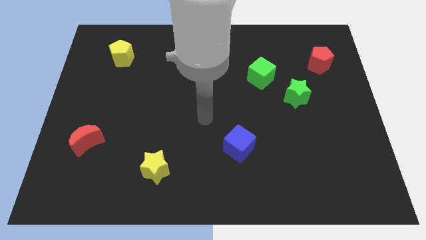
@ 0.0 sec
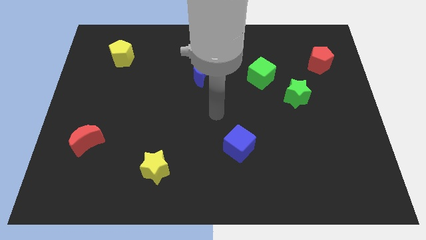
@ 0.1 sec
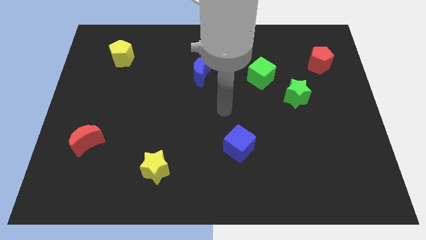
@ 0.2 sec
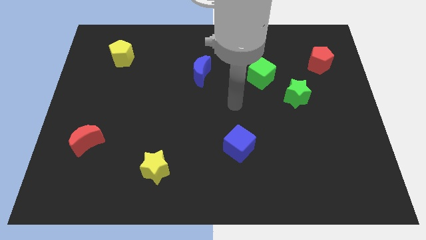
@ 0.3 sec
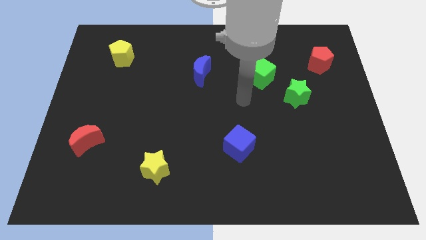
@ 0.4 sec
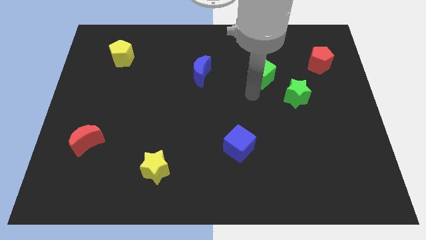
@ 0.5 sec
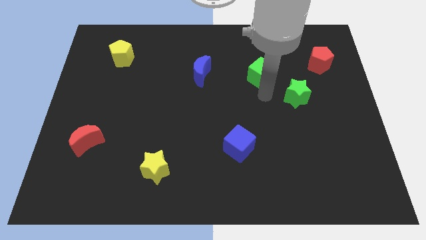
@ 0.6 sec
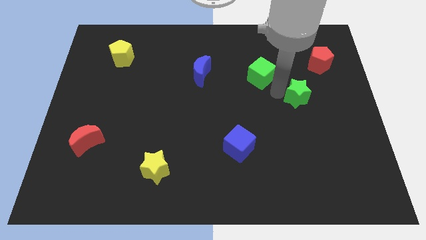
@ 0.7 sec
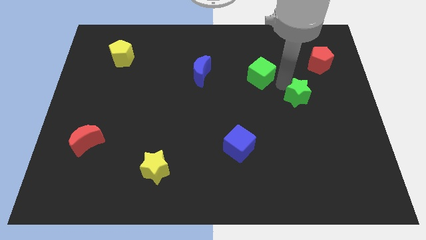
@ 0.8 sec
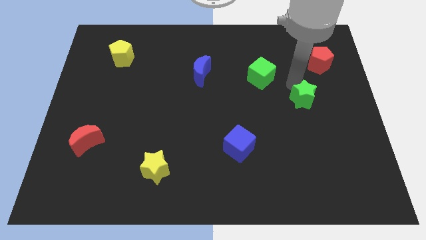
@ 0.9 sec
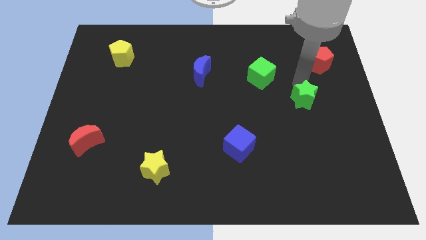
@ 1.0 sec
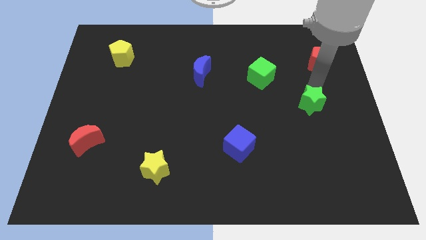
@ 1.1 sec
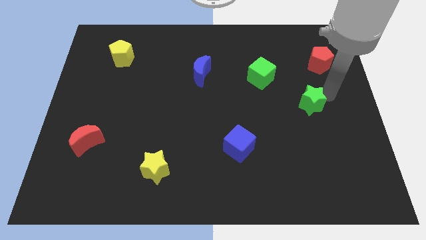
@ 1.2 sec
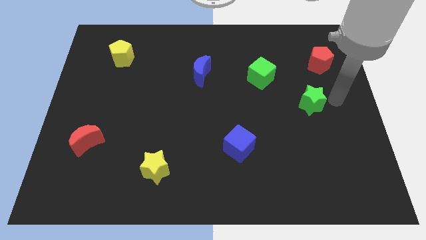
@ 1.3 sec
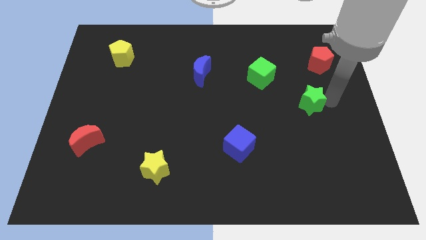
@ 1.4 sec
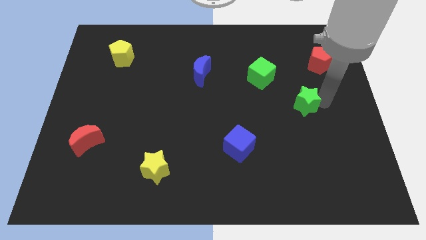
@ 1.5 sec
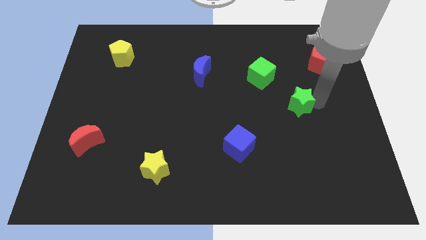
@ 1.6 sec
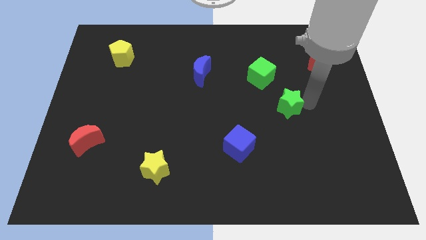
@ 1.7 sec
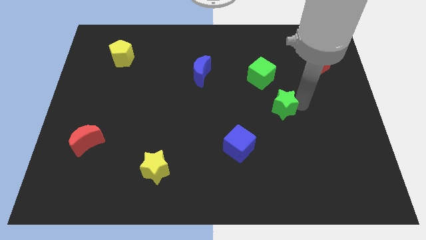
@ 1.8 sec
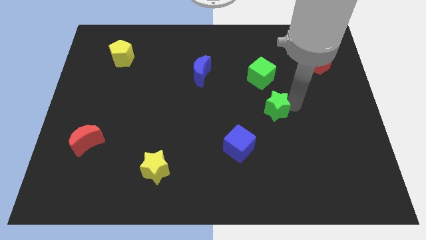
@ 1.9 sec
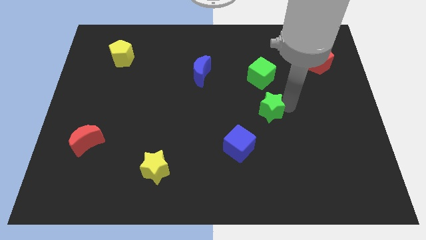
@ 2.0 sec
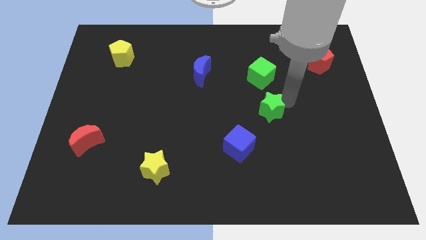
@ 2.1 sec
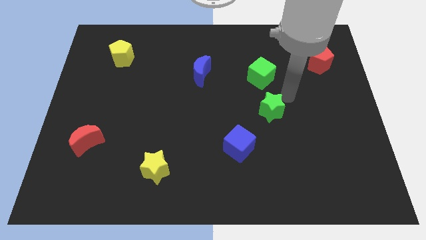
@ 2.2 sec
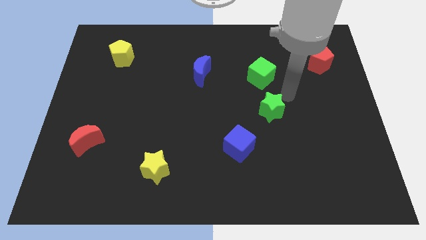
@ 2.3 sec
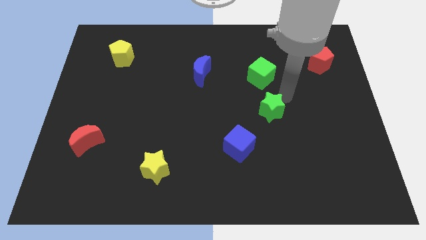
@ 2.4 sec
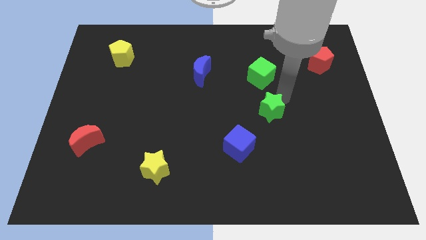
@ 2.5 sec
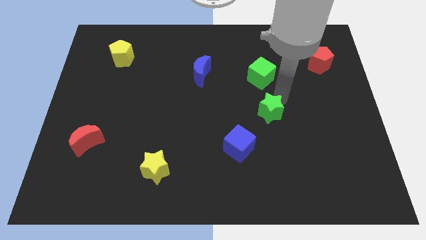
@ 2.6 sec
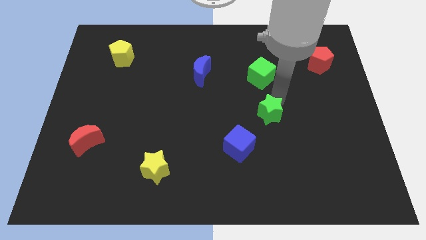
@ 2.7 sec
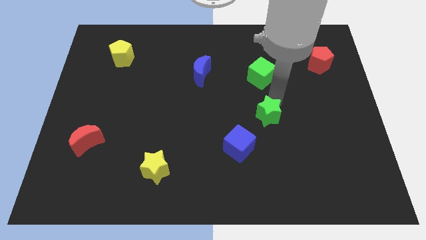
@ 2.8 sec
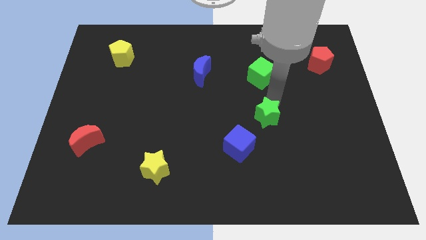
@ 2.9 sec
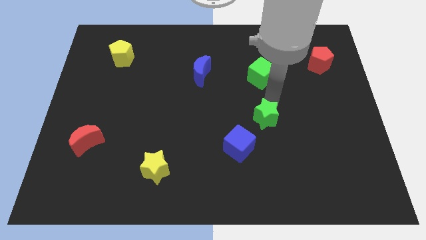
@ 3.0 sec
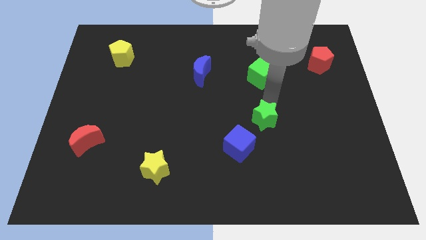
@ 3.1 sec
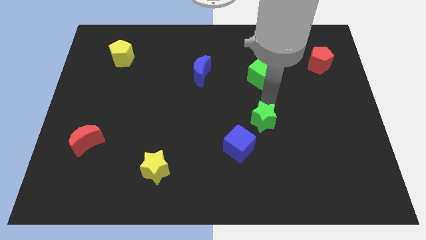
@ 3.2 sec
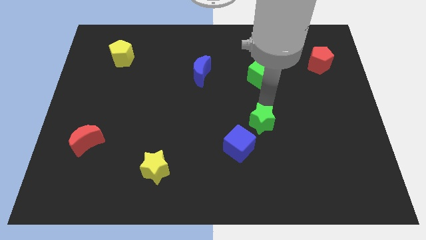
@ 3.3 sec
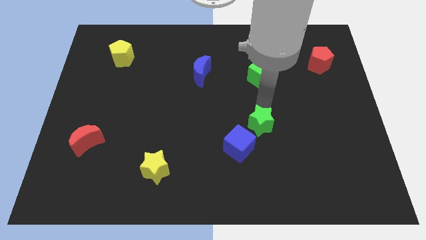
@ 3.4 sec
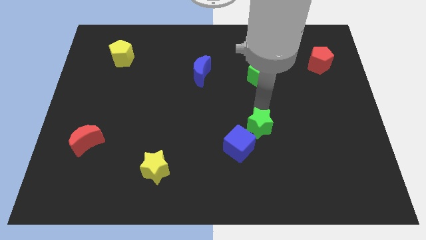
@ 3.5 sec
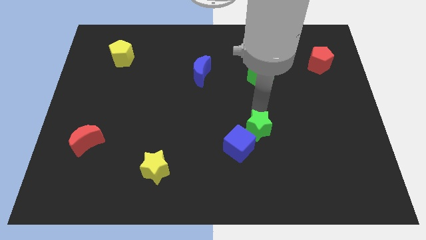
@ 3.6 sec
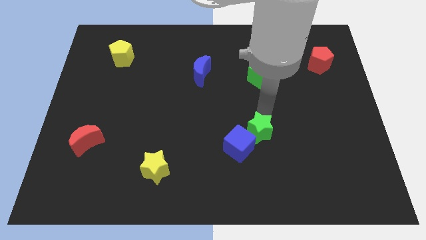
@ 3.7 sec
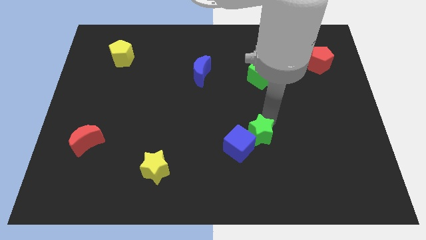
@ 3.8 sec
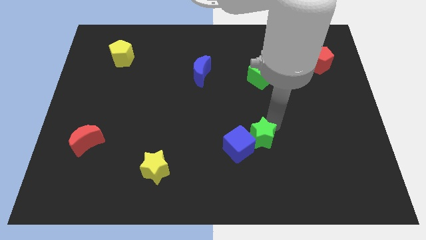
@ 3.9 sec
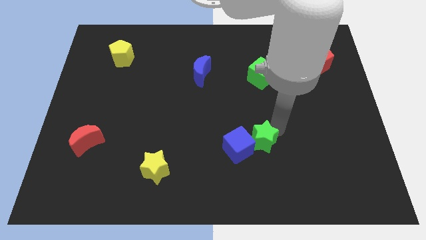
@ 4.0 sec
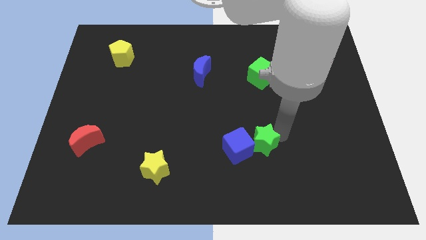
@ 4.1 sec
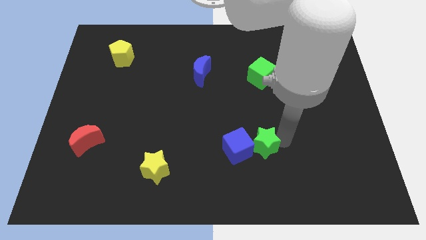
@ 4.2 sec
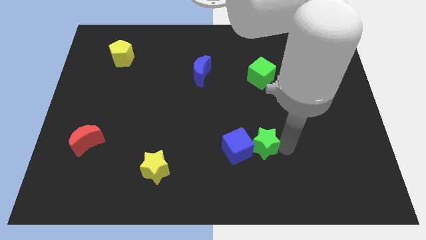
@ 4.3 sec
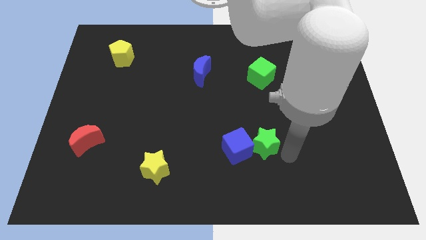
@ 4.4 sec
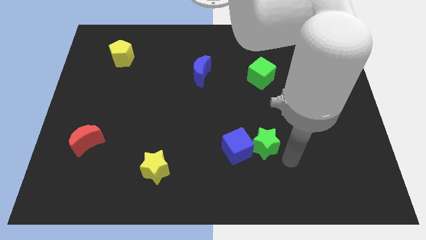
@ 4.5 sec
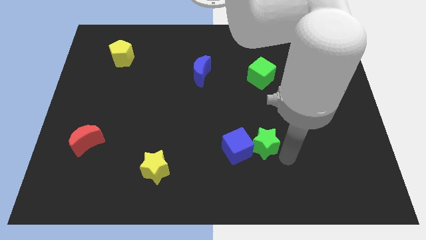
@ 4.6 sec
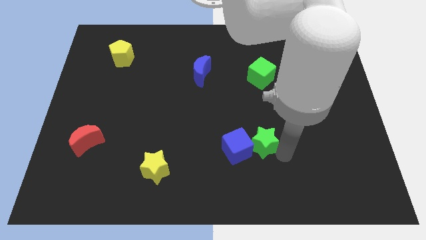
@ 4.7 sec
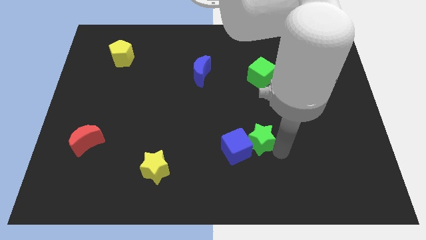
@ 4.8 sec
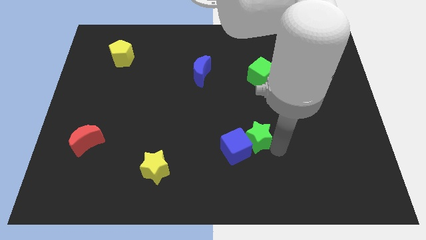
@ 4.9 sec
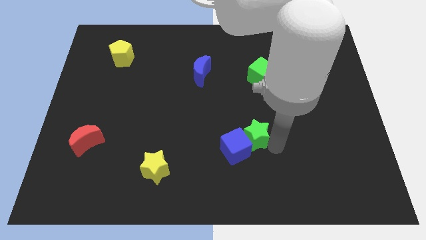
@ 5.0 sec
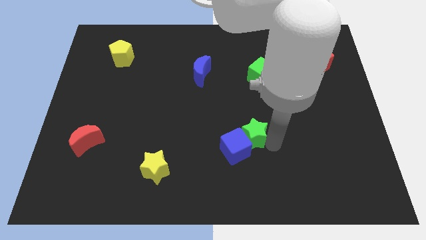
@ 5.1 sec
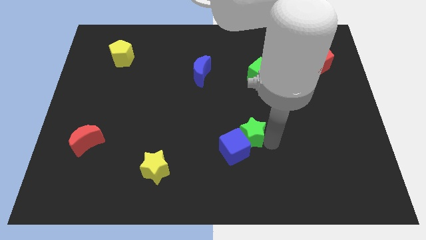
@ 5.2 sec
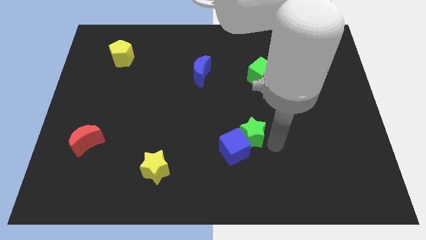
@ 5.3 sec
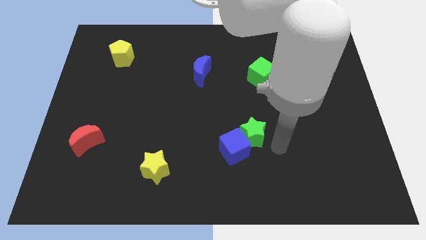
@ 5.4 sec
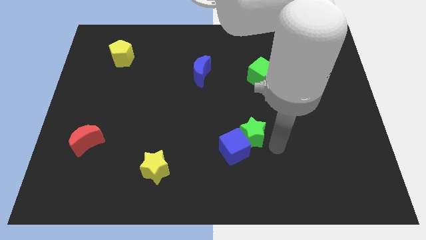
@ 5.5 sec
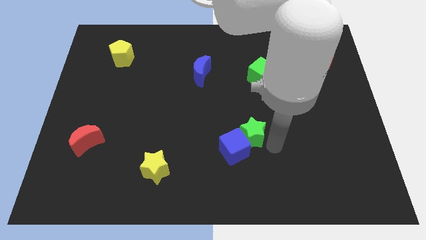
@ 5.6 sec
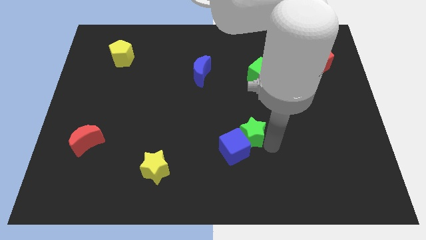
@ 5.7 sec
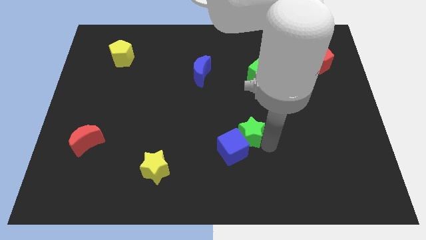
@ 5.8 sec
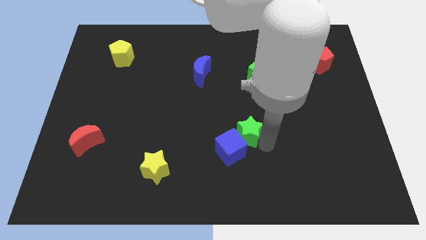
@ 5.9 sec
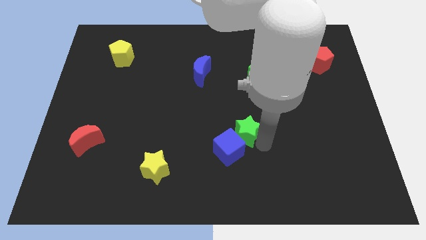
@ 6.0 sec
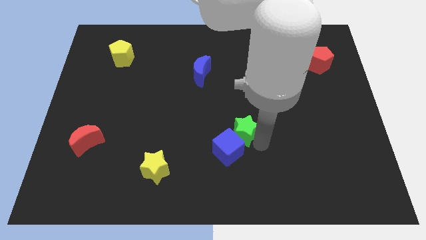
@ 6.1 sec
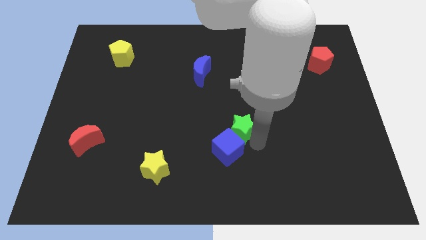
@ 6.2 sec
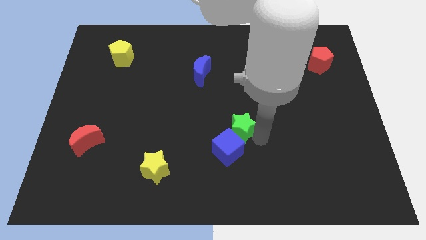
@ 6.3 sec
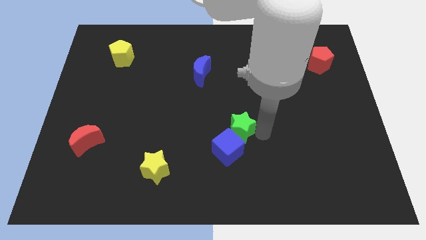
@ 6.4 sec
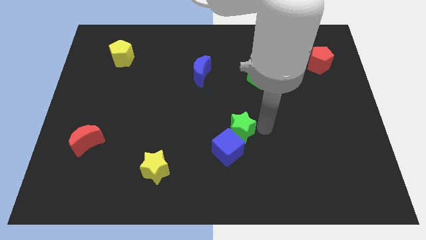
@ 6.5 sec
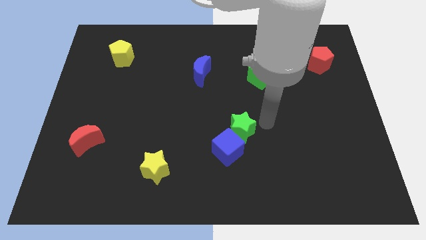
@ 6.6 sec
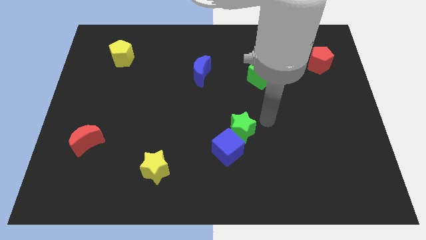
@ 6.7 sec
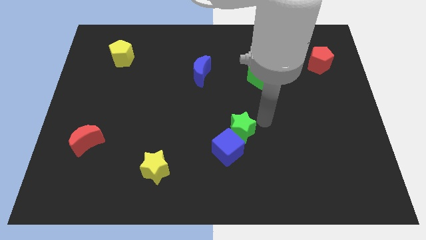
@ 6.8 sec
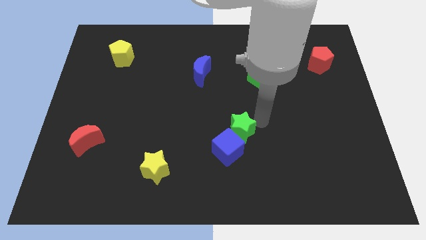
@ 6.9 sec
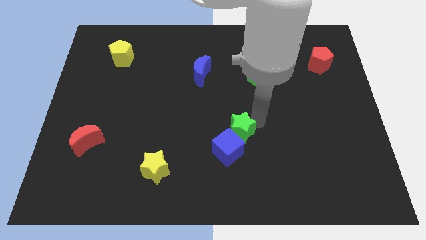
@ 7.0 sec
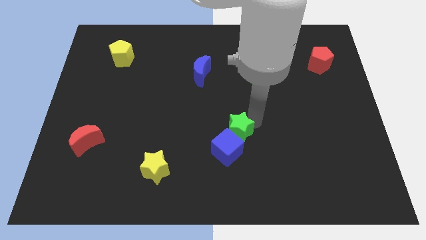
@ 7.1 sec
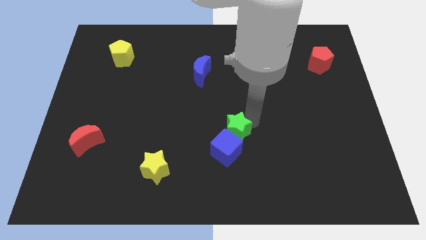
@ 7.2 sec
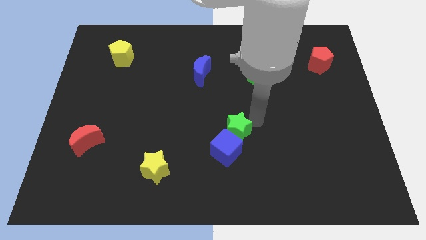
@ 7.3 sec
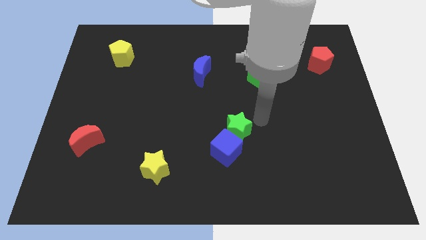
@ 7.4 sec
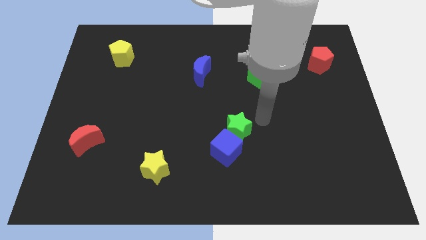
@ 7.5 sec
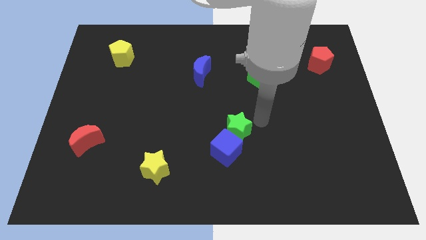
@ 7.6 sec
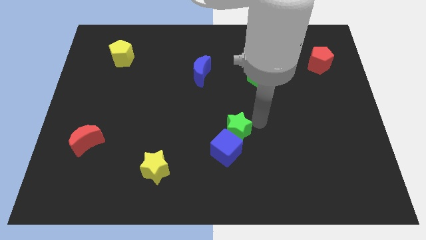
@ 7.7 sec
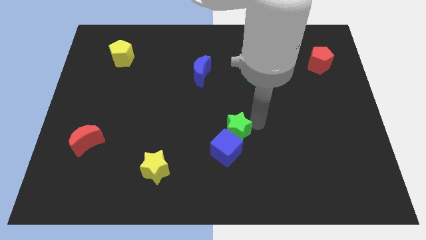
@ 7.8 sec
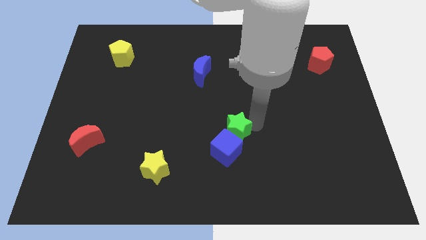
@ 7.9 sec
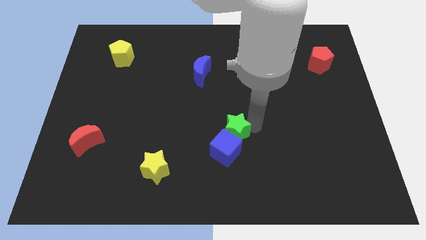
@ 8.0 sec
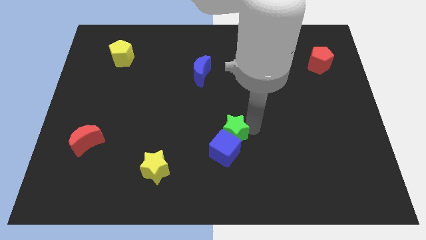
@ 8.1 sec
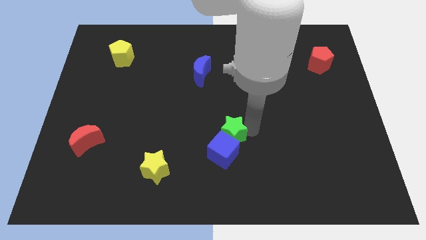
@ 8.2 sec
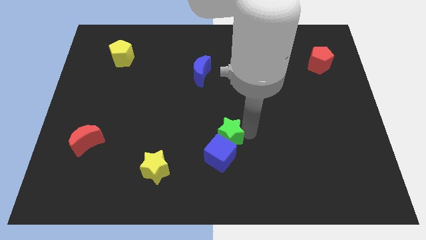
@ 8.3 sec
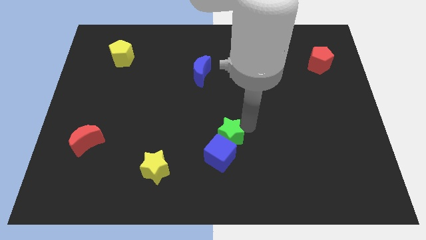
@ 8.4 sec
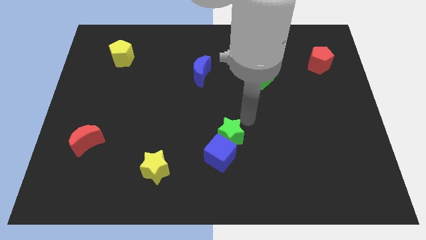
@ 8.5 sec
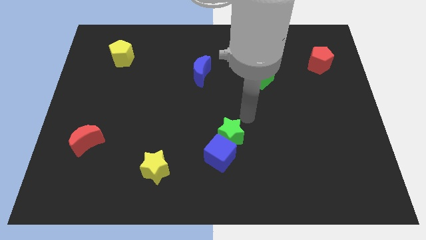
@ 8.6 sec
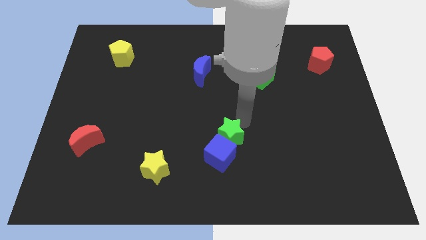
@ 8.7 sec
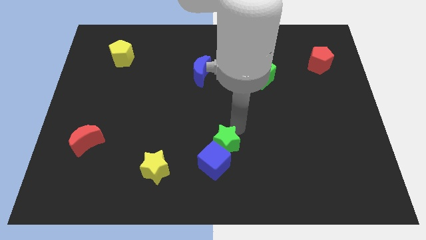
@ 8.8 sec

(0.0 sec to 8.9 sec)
move the green star downwards and then to the left
